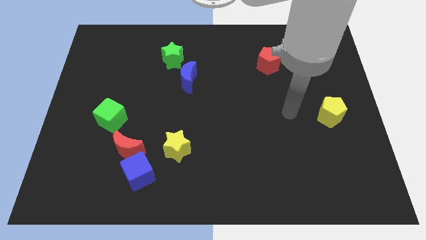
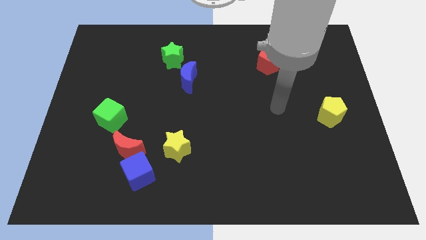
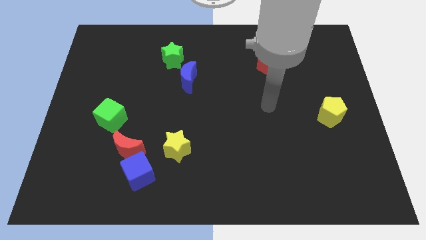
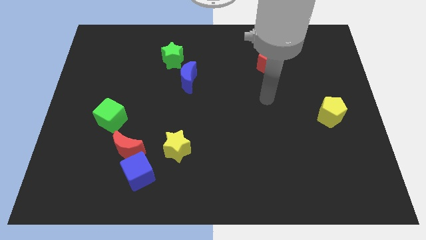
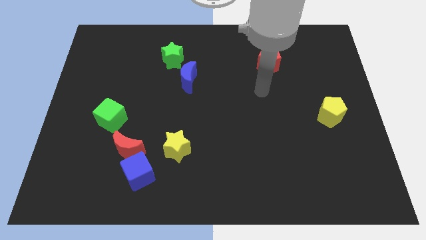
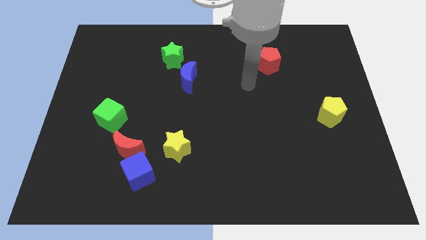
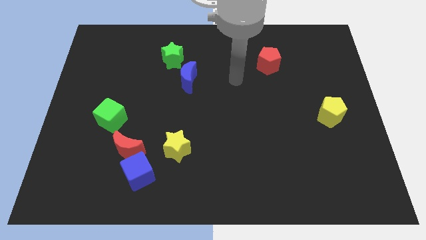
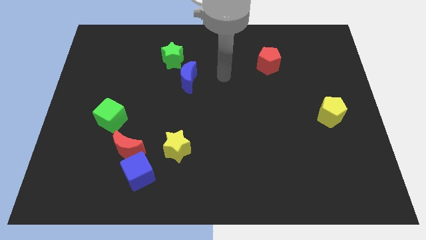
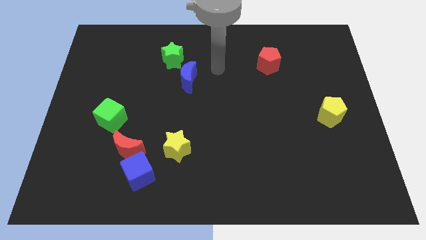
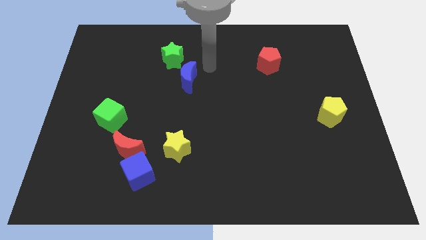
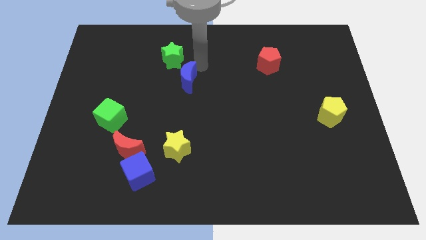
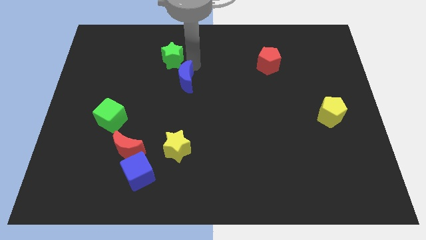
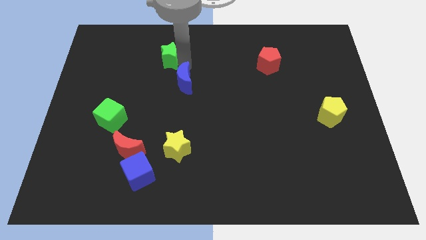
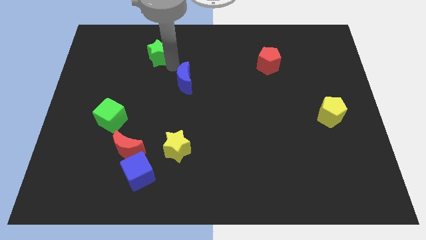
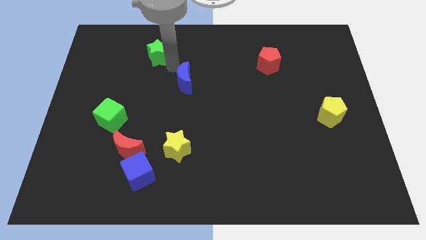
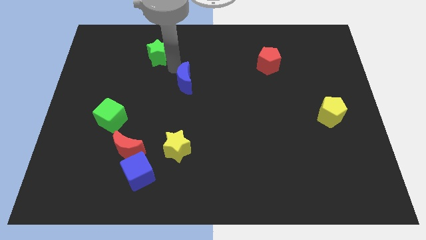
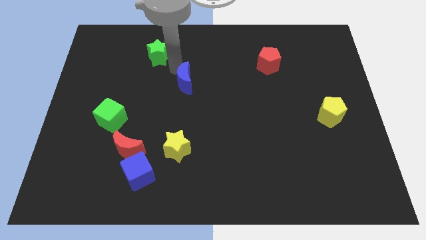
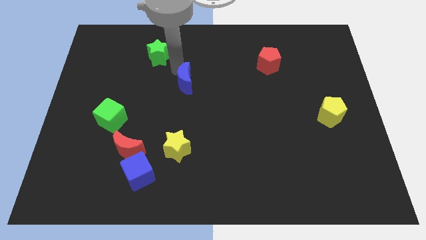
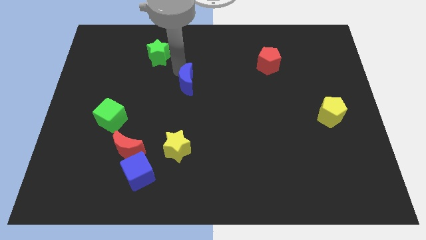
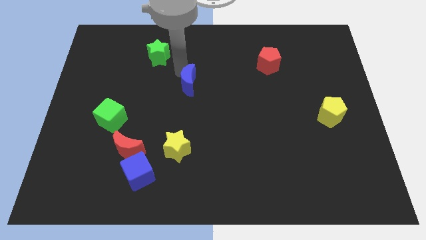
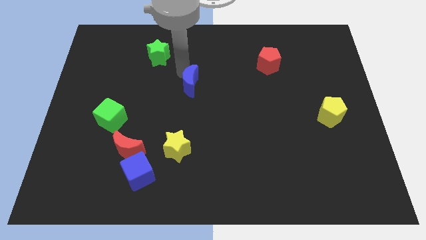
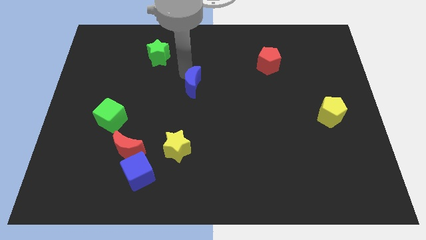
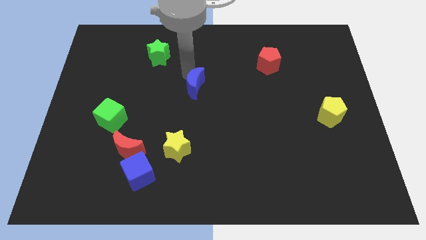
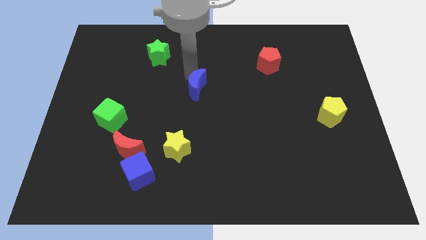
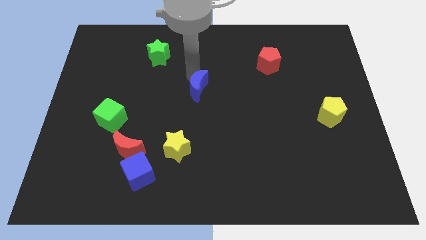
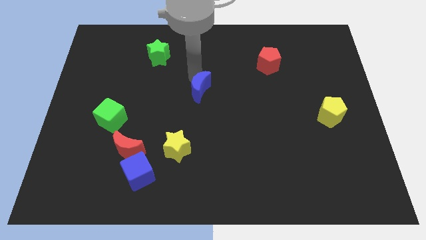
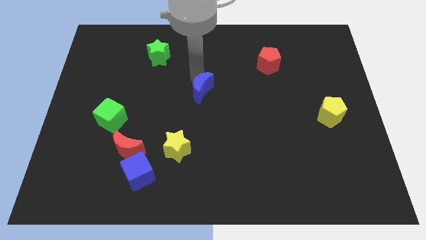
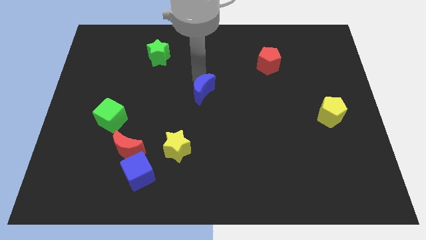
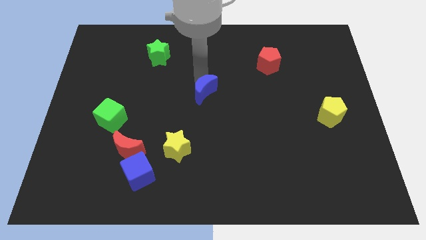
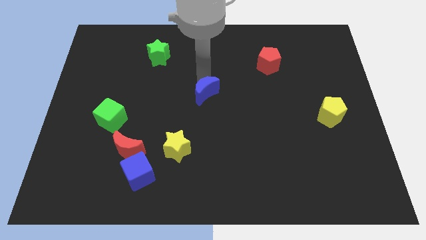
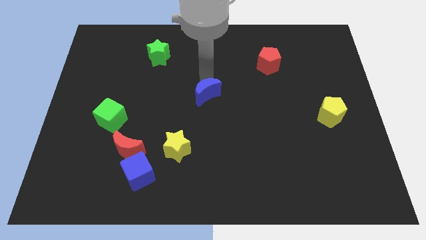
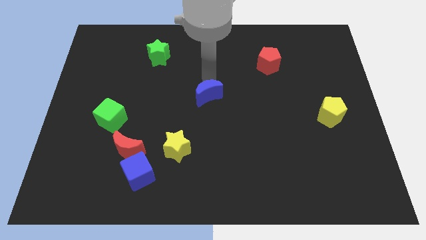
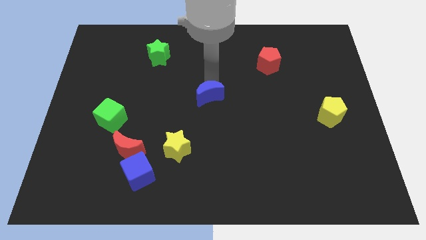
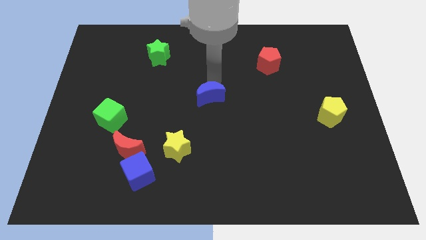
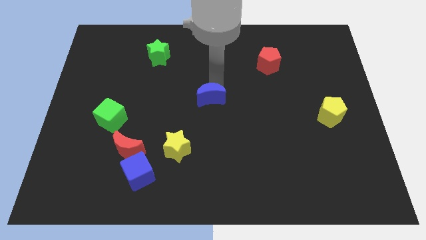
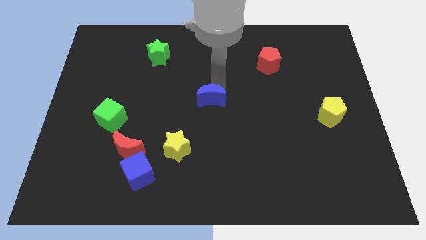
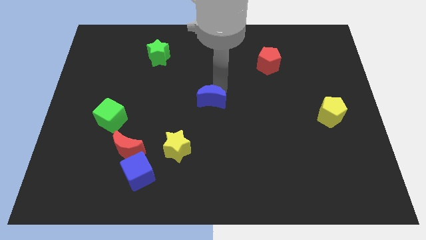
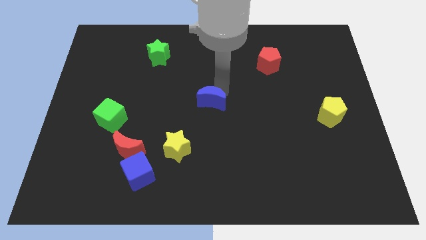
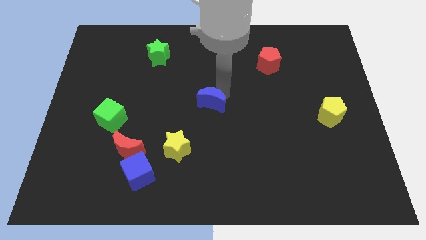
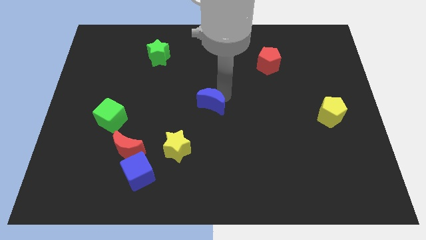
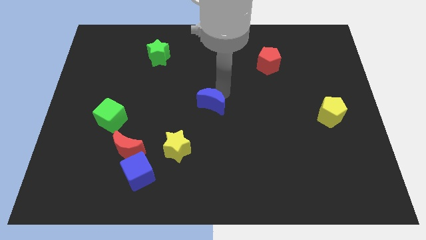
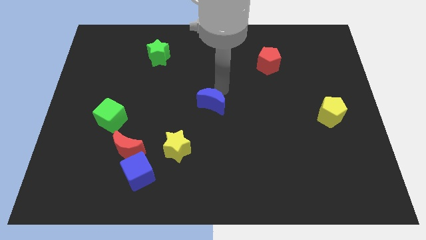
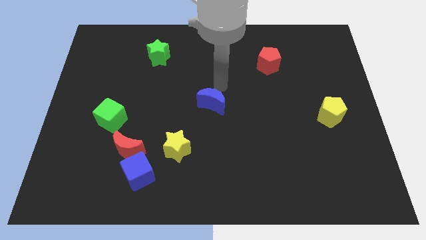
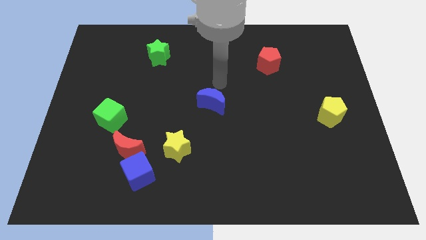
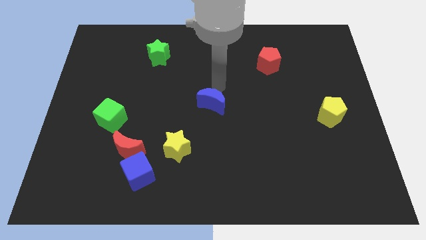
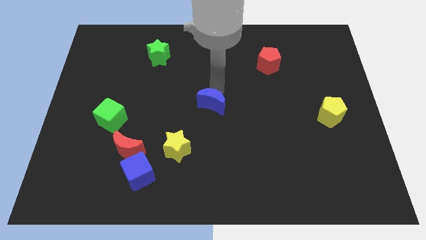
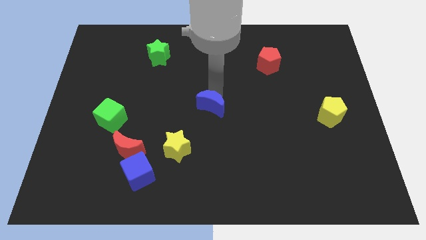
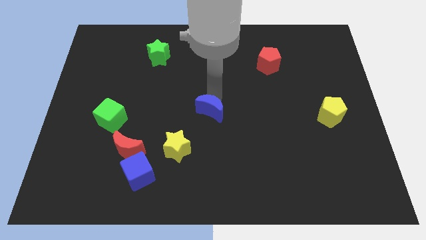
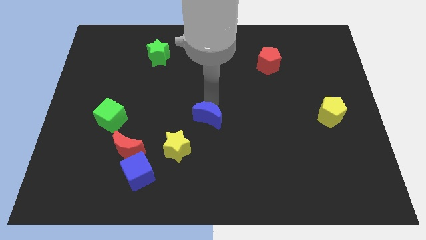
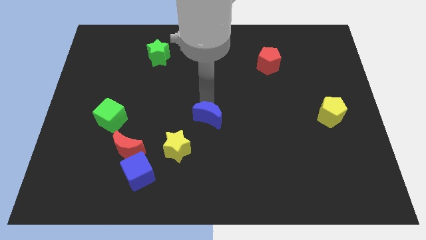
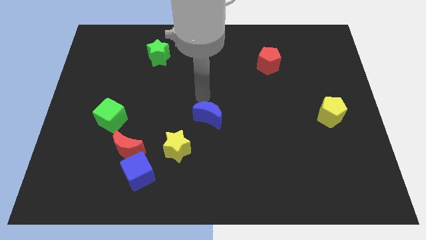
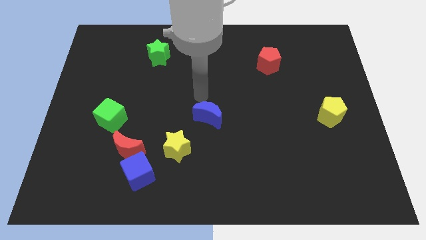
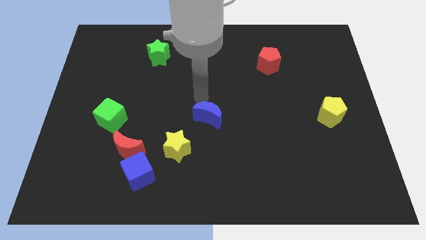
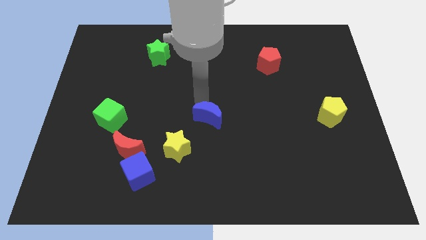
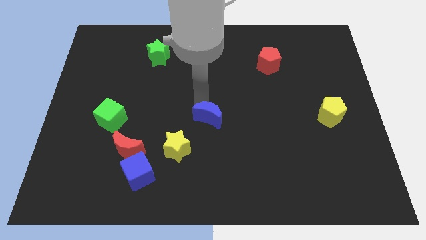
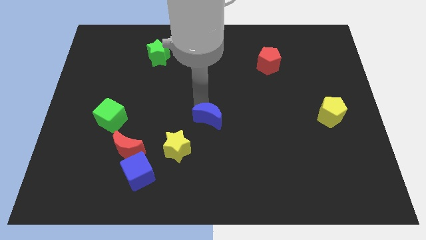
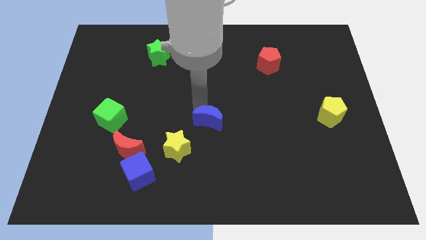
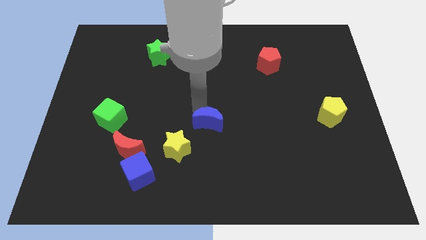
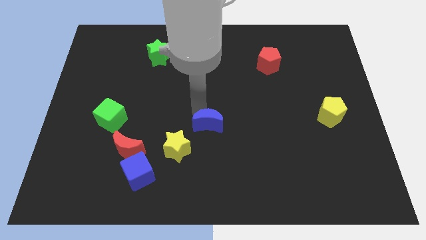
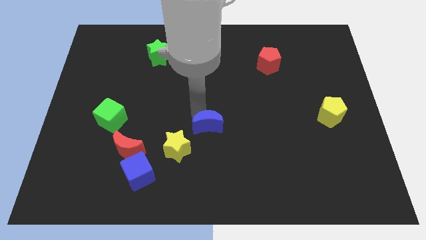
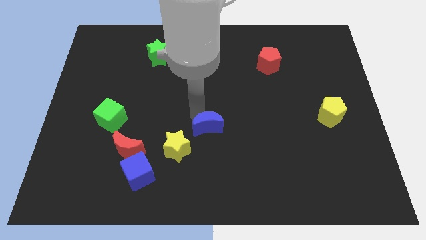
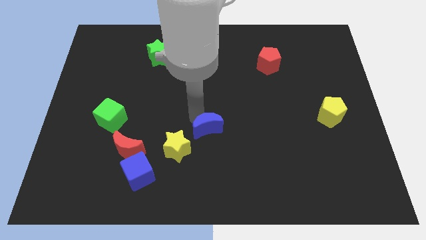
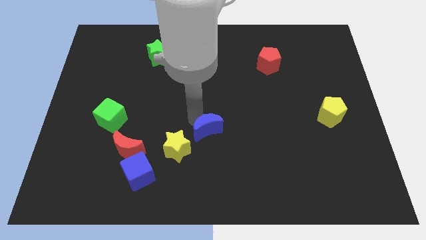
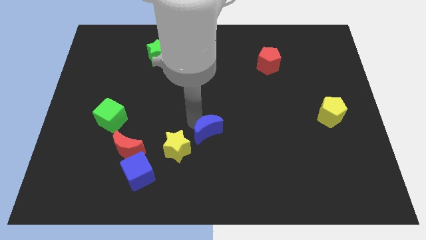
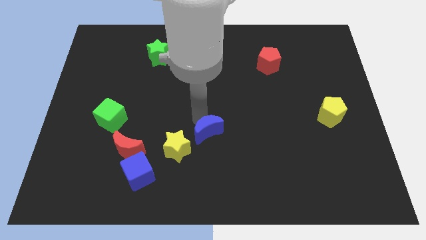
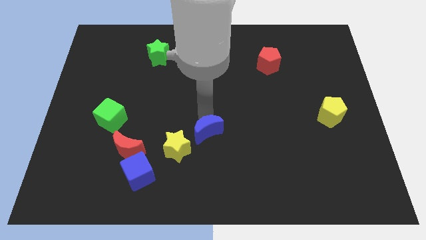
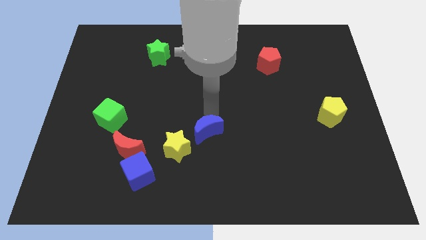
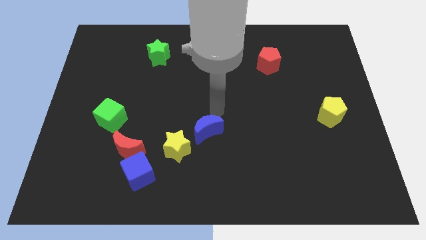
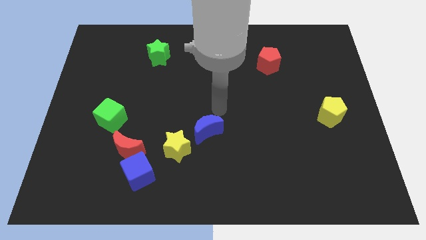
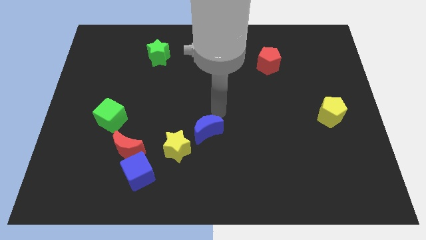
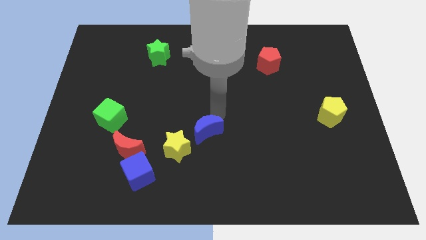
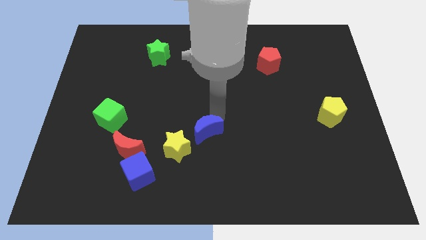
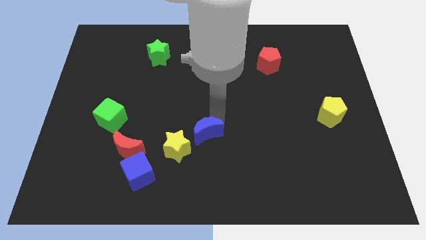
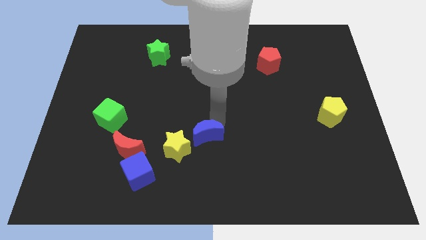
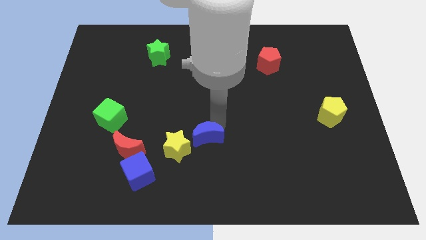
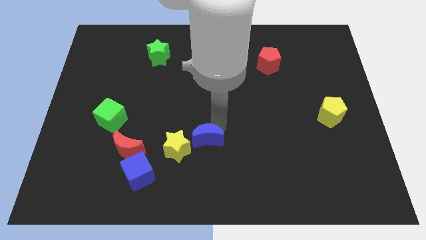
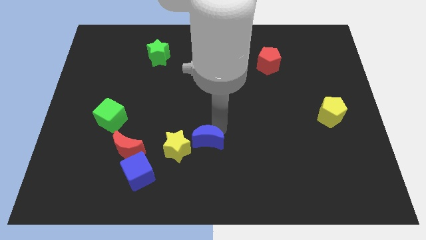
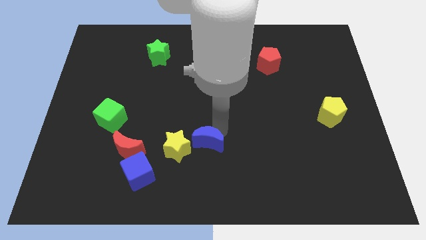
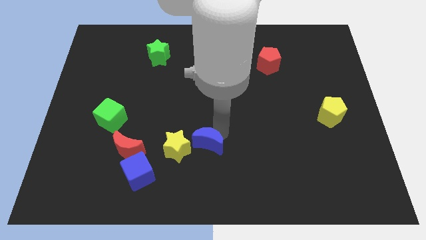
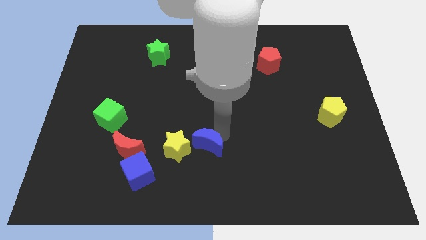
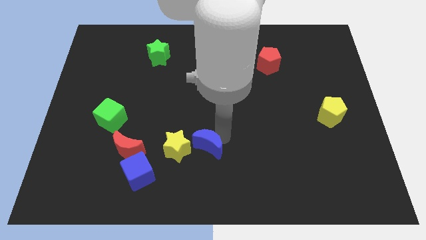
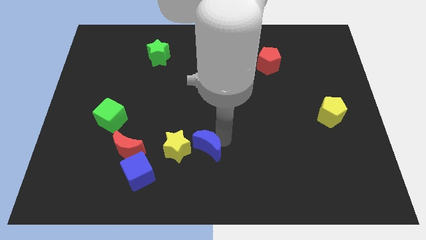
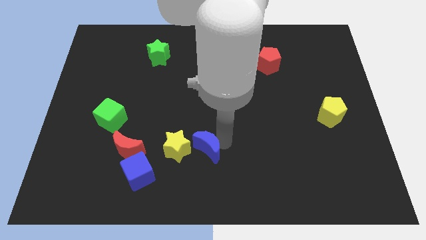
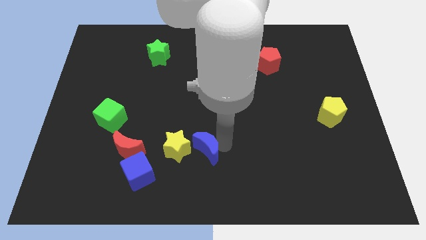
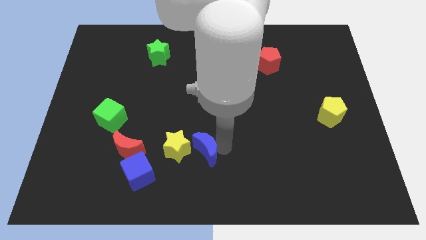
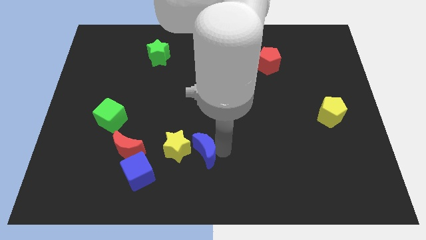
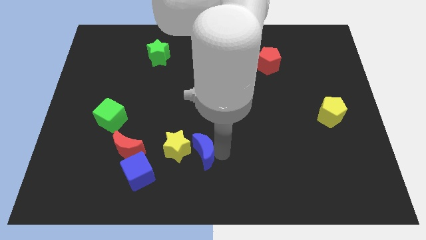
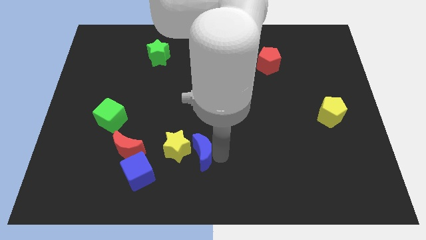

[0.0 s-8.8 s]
slide the blue moon right of the red moon
